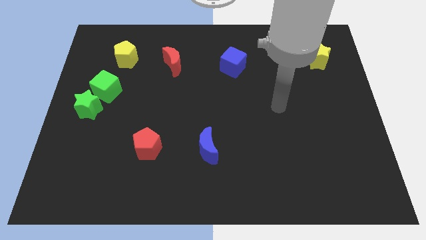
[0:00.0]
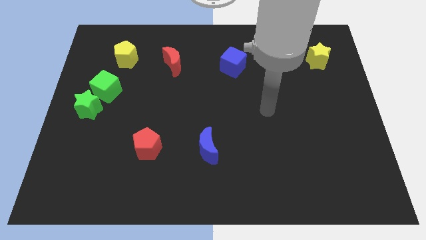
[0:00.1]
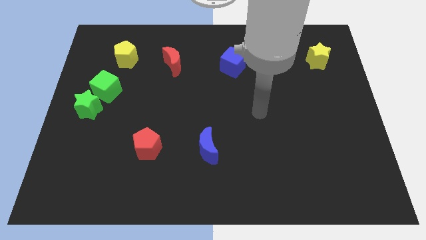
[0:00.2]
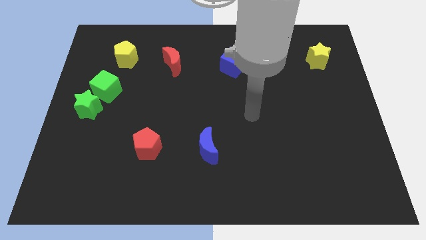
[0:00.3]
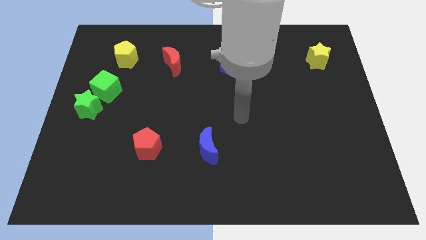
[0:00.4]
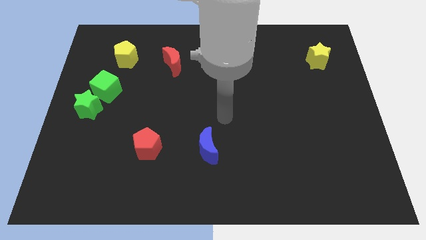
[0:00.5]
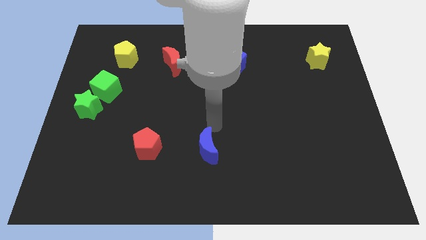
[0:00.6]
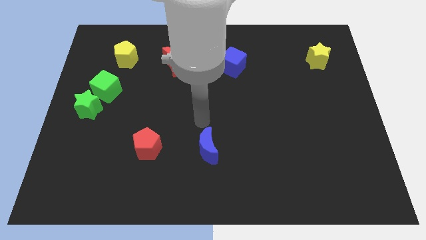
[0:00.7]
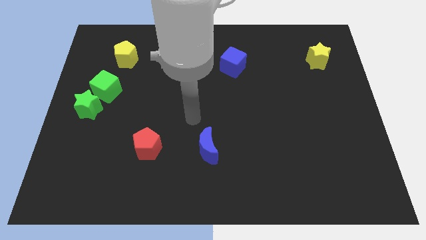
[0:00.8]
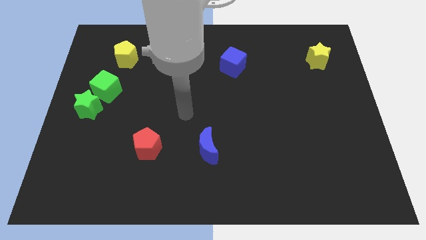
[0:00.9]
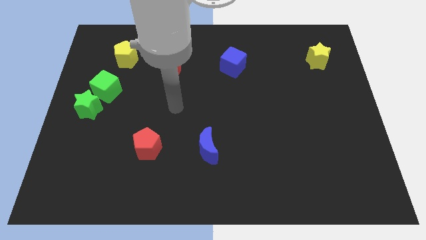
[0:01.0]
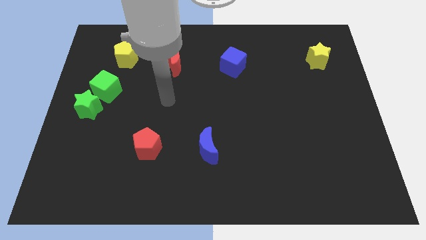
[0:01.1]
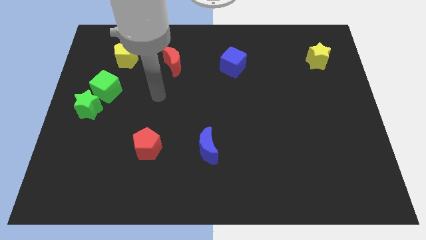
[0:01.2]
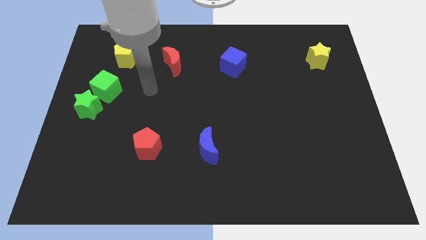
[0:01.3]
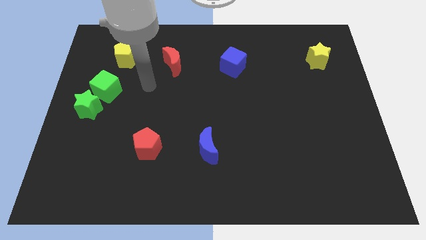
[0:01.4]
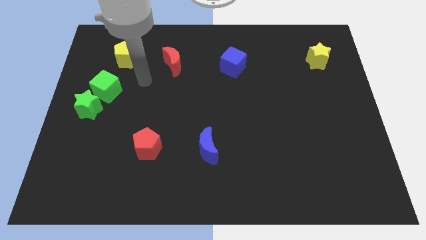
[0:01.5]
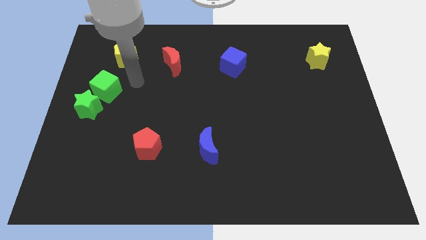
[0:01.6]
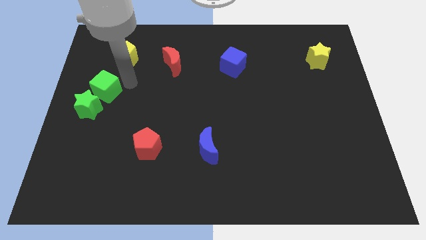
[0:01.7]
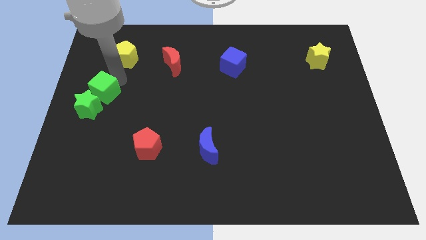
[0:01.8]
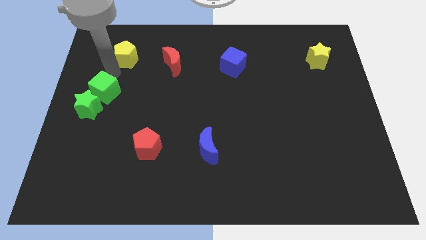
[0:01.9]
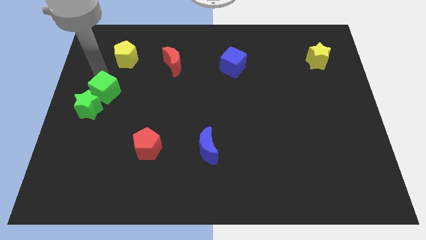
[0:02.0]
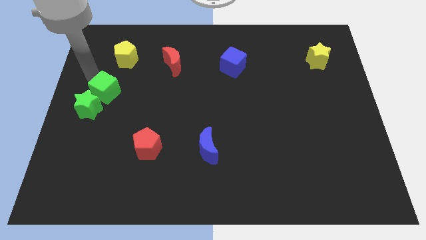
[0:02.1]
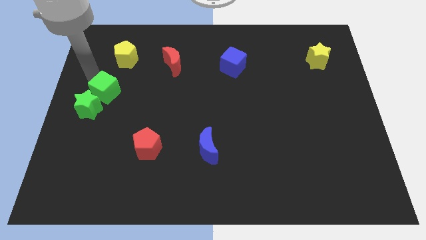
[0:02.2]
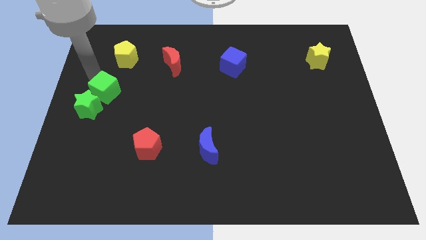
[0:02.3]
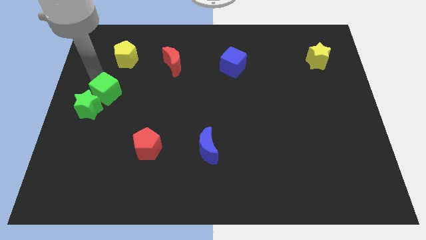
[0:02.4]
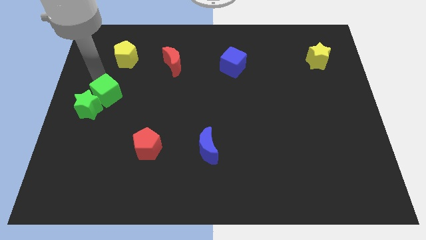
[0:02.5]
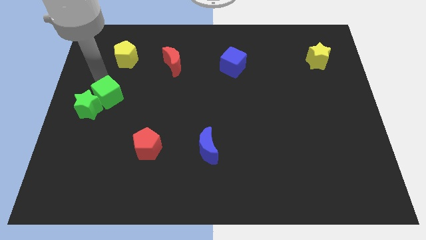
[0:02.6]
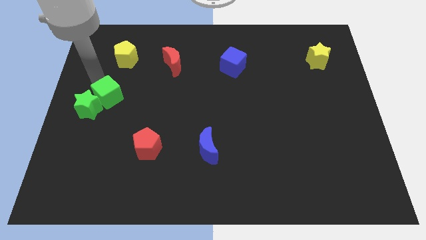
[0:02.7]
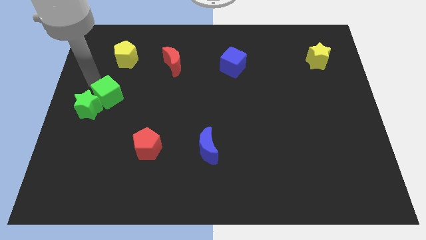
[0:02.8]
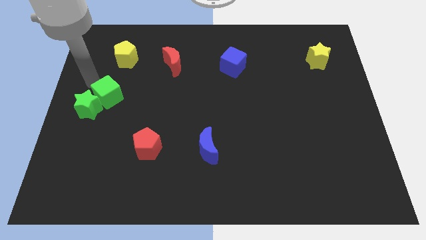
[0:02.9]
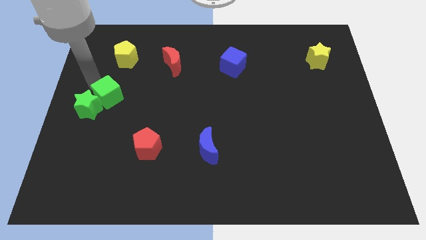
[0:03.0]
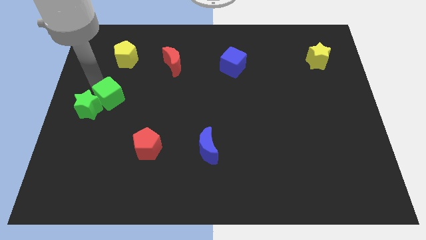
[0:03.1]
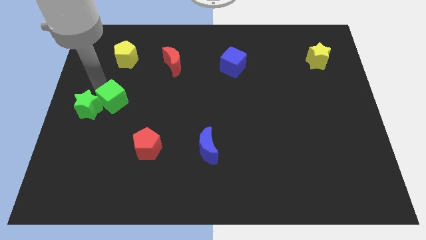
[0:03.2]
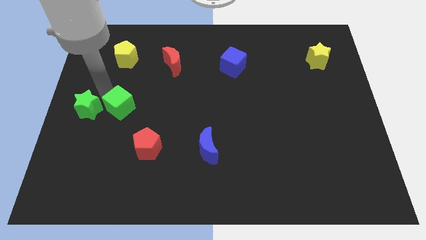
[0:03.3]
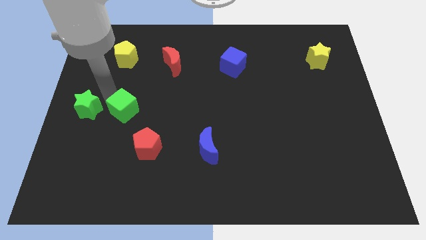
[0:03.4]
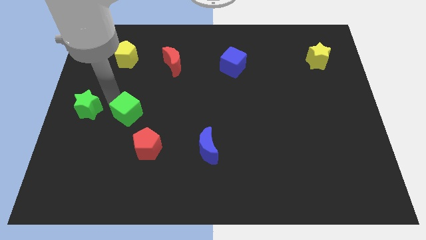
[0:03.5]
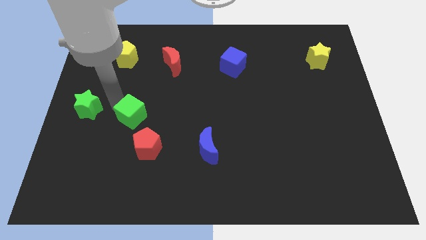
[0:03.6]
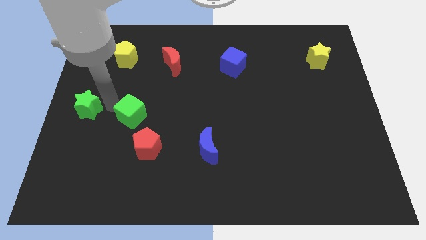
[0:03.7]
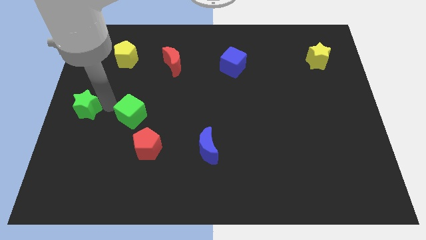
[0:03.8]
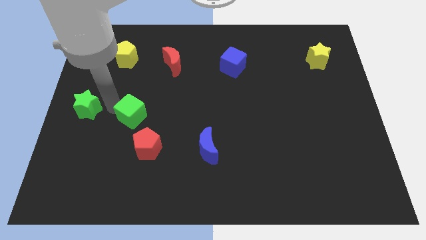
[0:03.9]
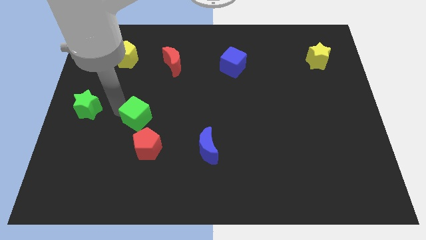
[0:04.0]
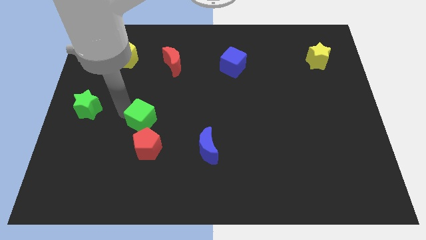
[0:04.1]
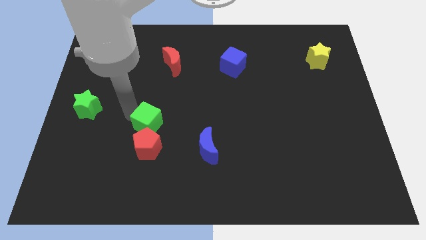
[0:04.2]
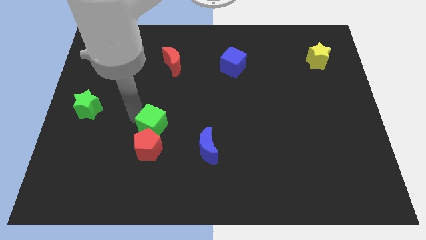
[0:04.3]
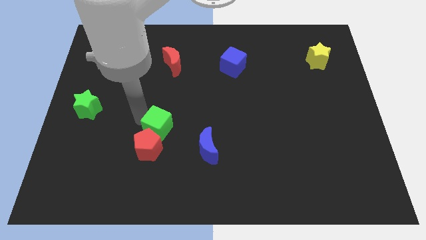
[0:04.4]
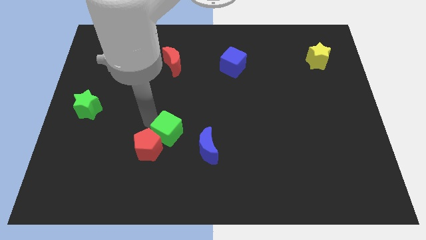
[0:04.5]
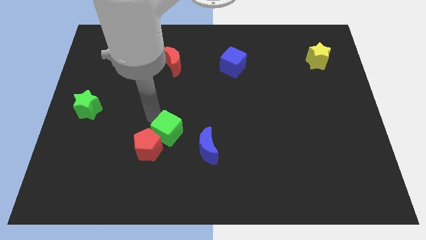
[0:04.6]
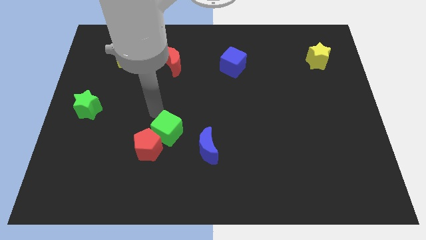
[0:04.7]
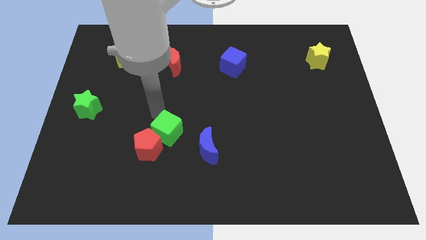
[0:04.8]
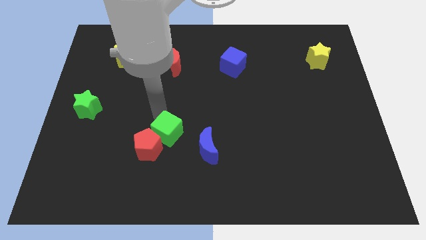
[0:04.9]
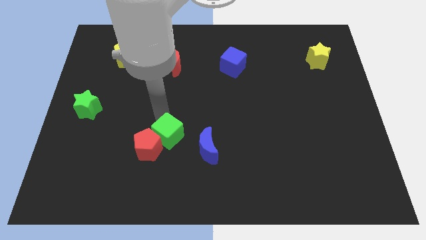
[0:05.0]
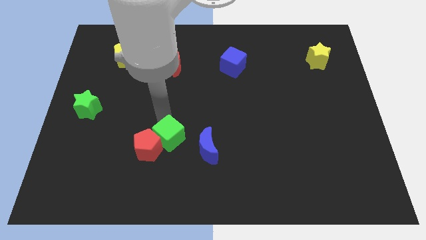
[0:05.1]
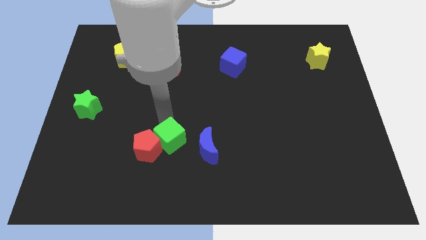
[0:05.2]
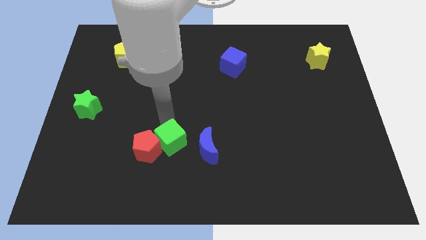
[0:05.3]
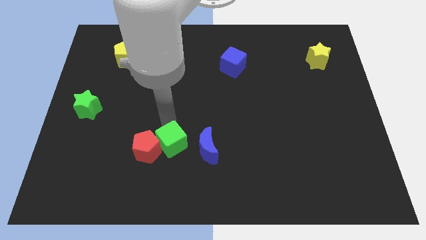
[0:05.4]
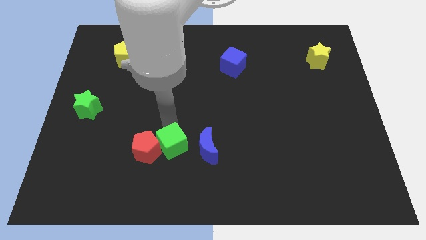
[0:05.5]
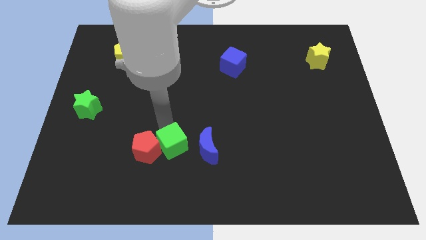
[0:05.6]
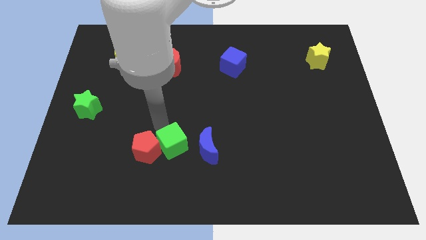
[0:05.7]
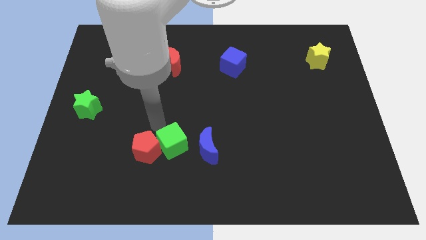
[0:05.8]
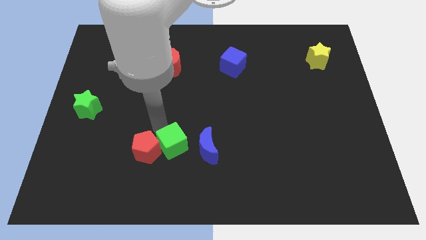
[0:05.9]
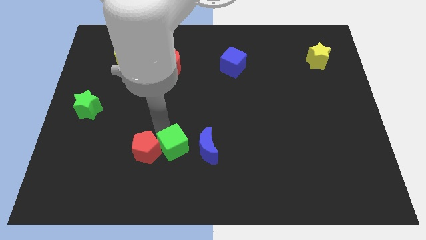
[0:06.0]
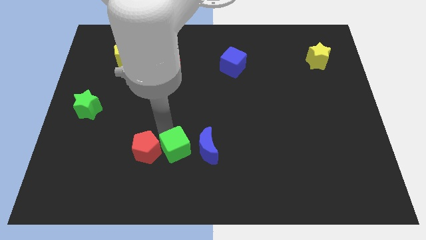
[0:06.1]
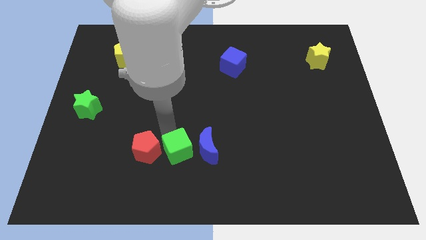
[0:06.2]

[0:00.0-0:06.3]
put the green cube to the bottom left side of the blue moon

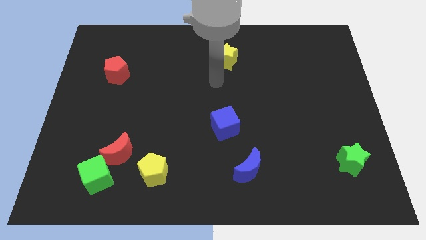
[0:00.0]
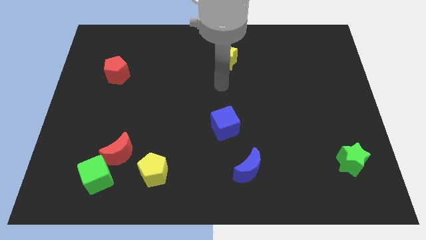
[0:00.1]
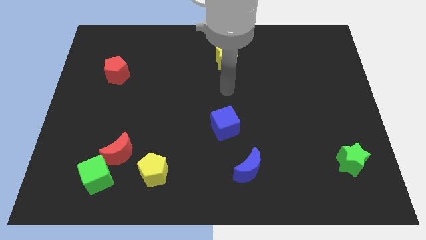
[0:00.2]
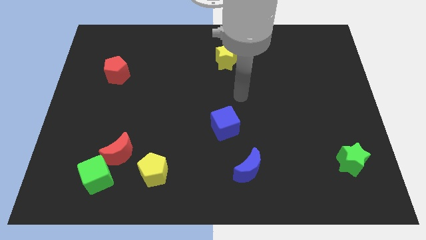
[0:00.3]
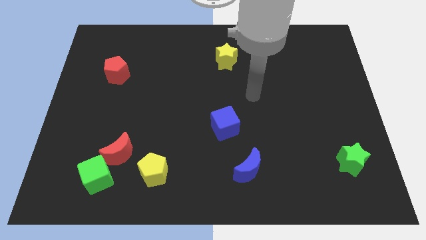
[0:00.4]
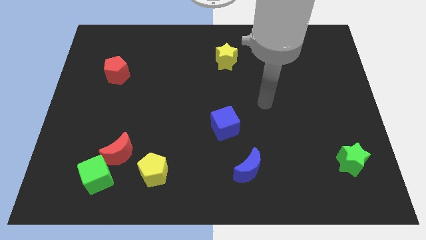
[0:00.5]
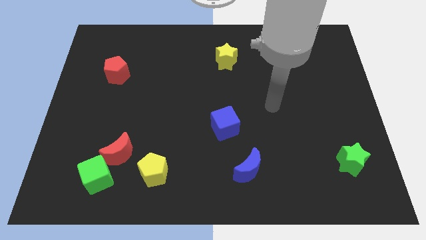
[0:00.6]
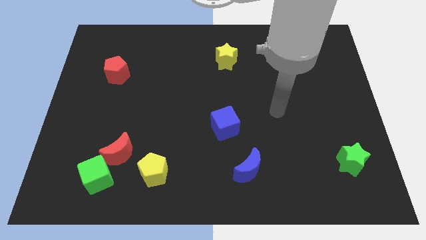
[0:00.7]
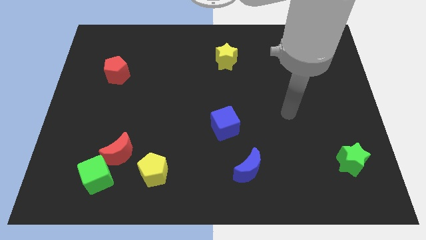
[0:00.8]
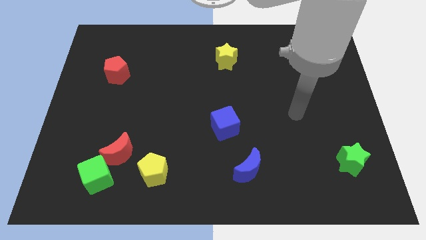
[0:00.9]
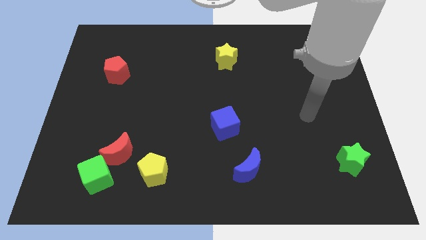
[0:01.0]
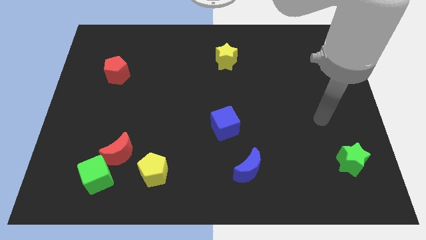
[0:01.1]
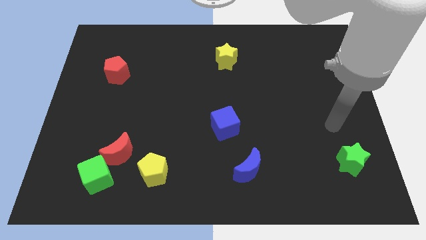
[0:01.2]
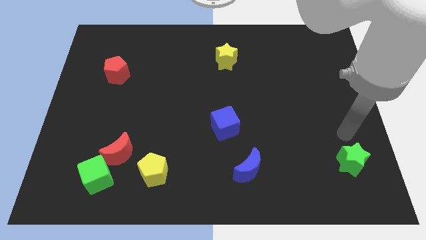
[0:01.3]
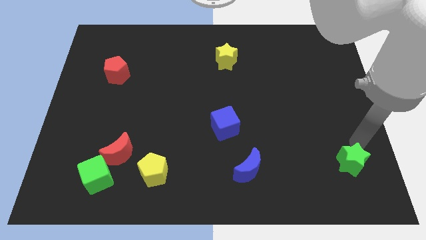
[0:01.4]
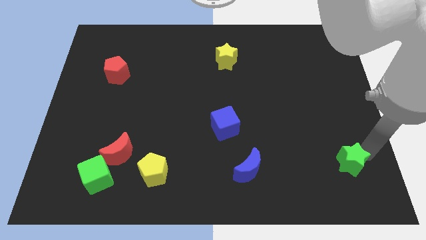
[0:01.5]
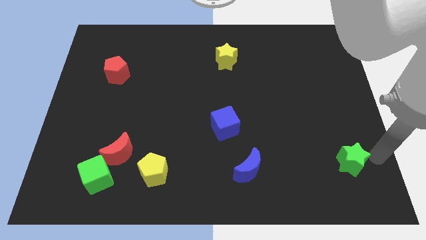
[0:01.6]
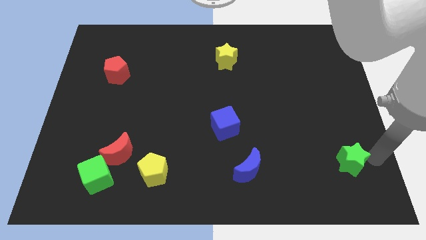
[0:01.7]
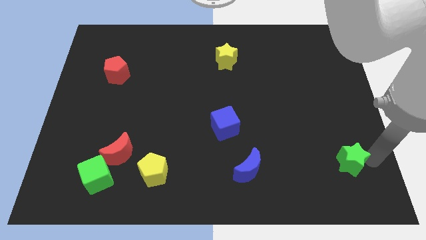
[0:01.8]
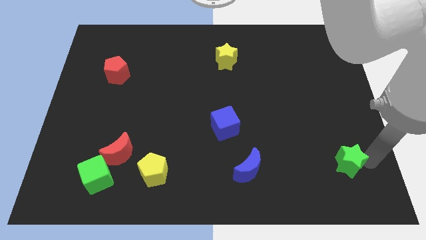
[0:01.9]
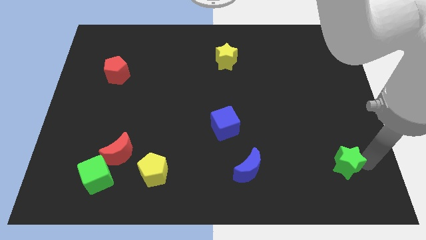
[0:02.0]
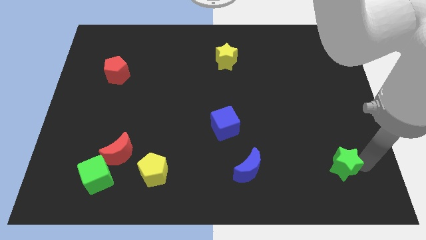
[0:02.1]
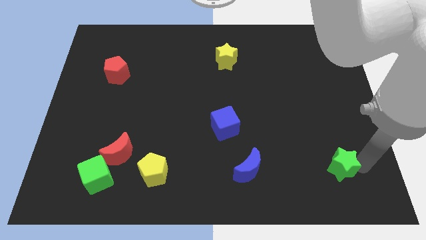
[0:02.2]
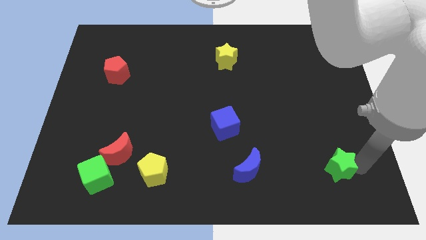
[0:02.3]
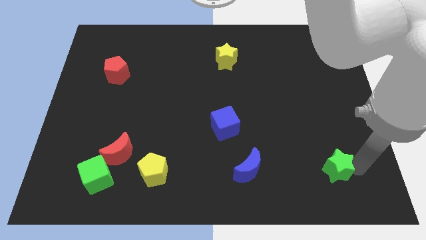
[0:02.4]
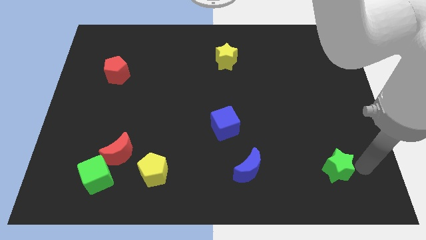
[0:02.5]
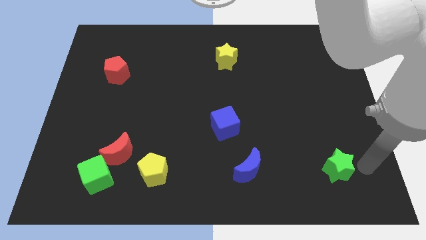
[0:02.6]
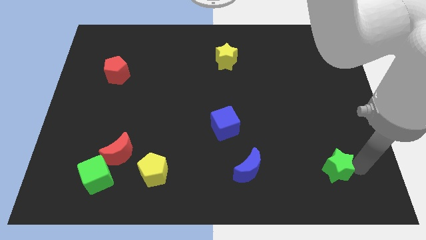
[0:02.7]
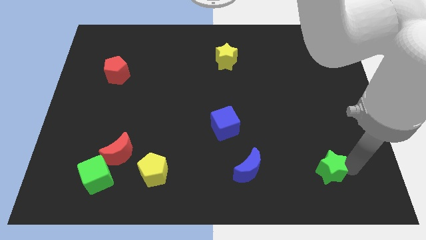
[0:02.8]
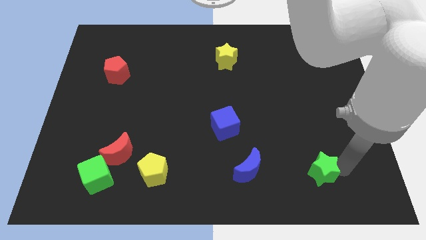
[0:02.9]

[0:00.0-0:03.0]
push the green star just right of the blue moon
